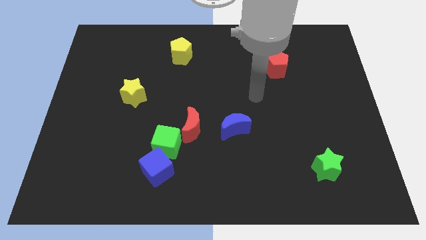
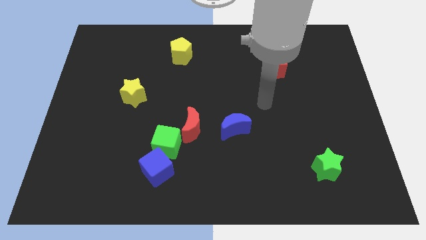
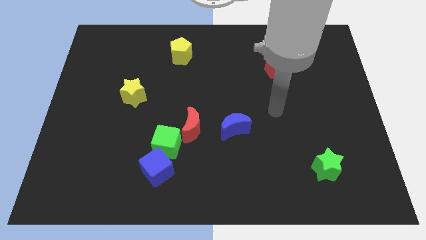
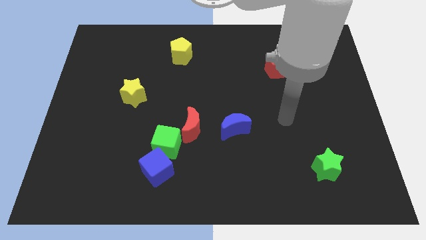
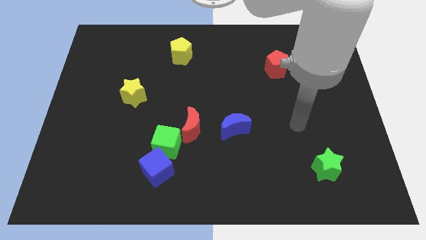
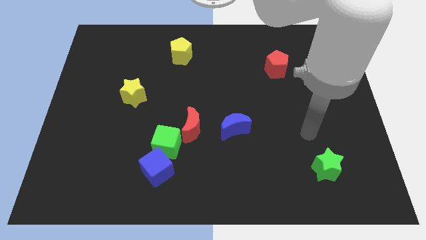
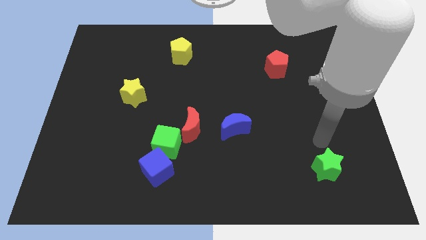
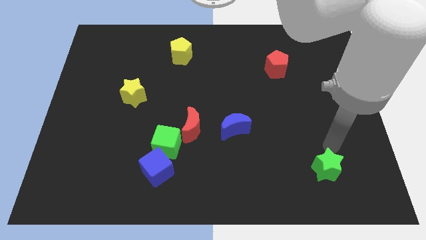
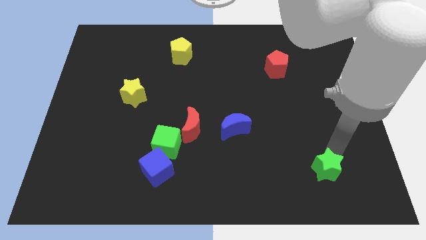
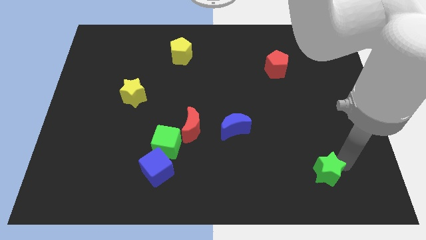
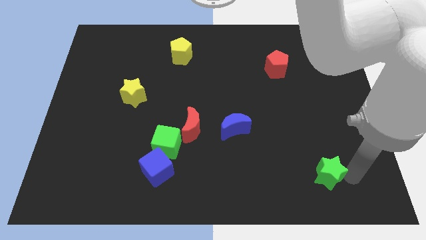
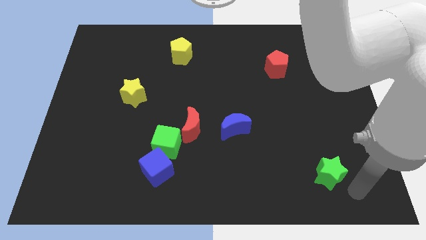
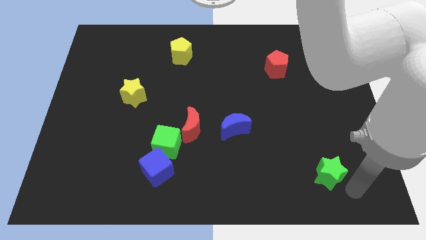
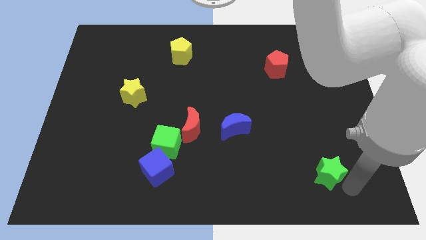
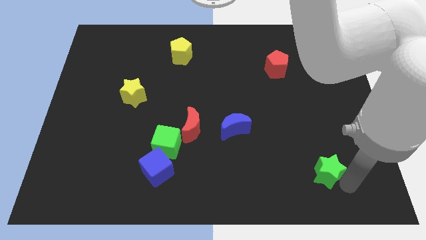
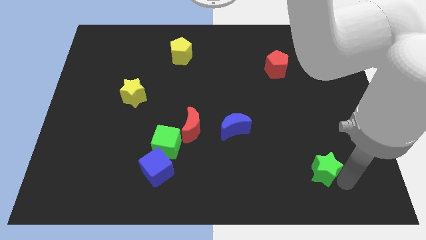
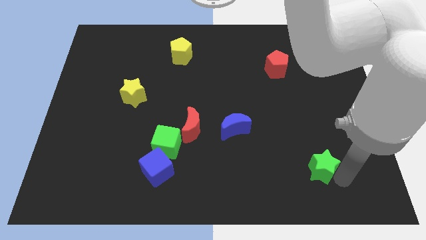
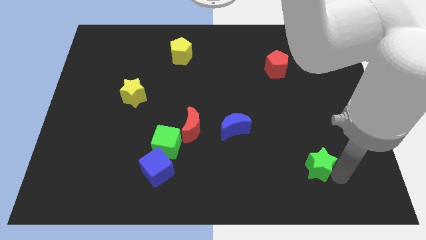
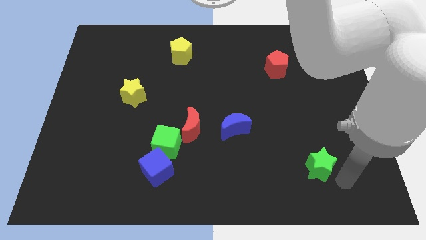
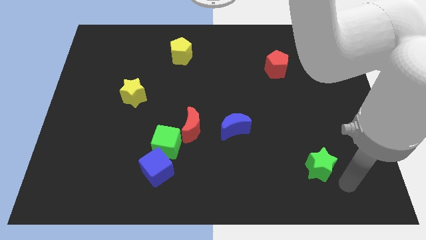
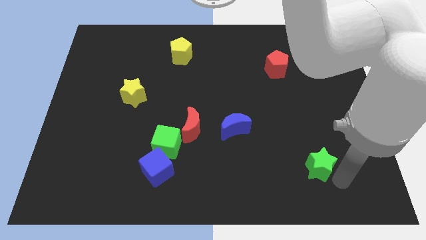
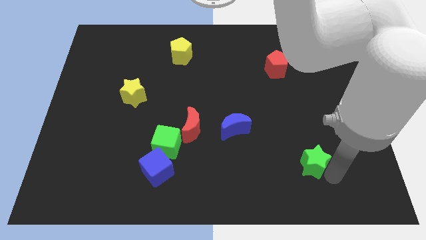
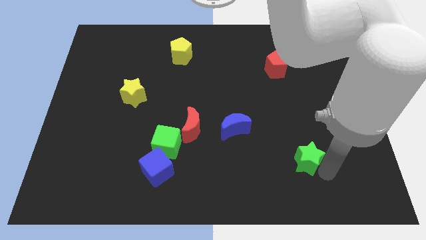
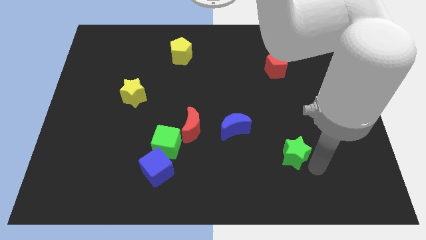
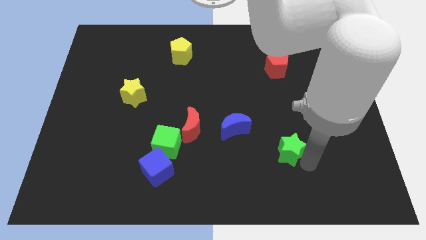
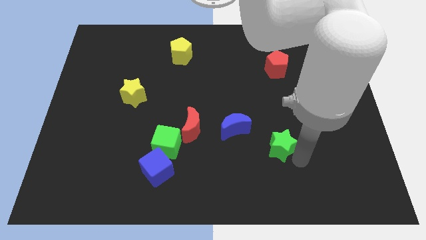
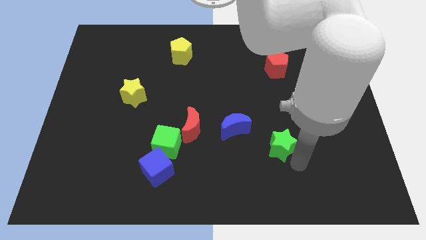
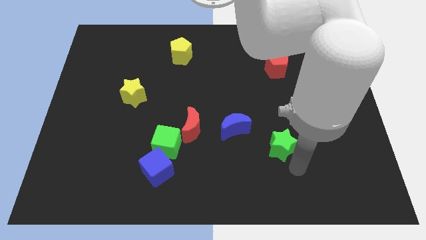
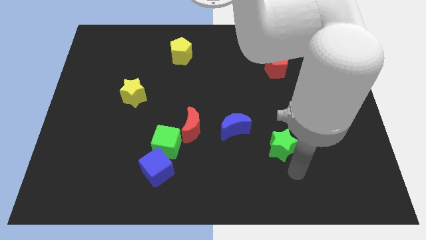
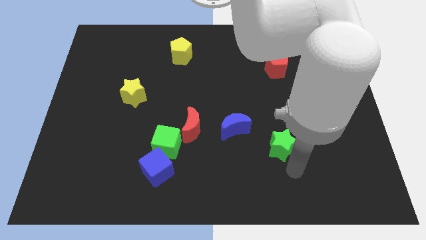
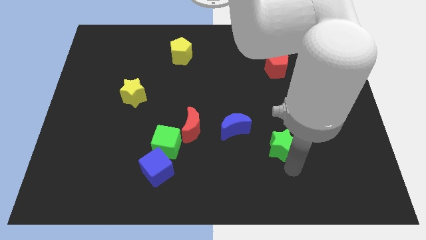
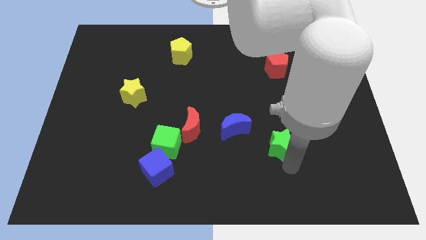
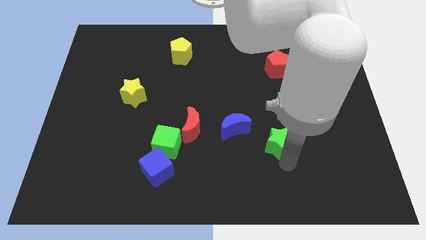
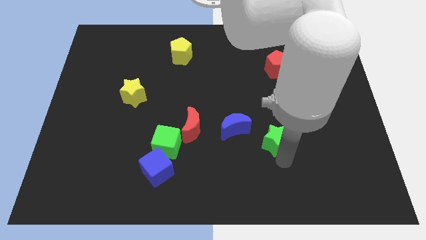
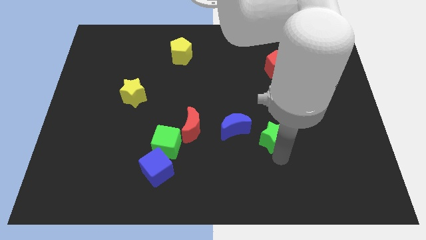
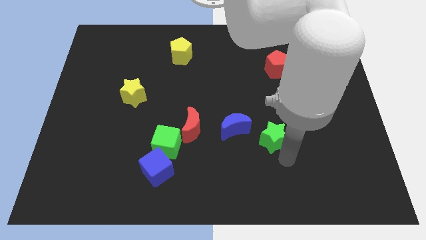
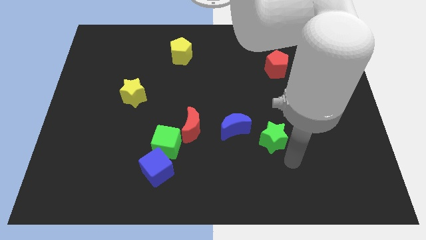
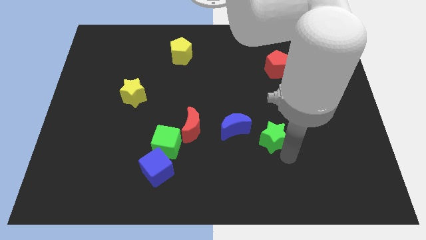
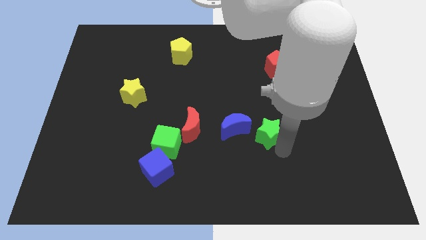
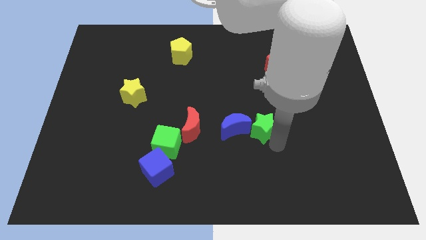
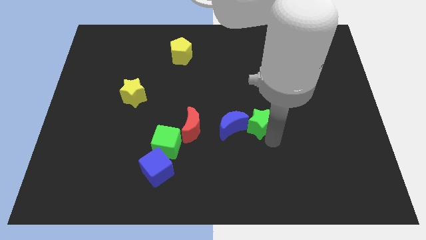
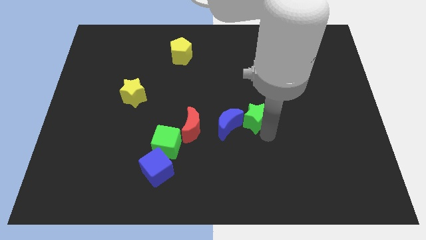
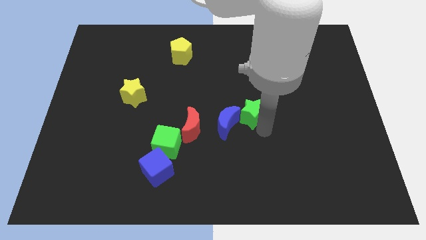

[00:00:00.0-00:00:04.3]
move the green star diagonally up and left

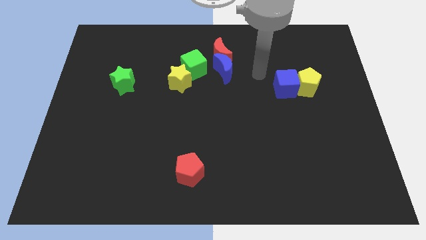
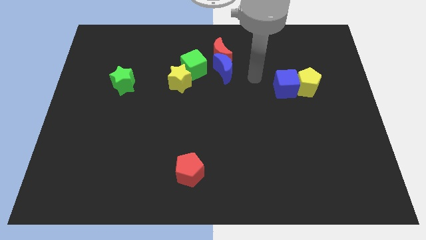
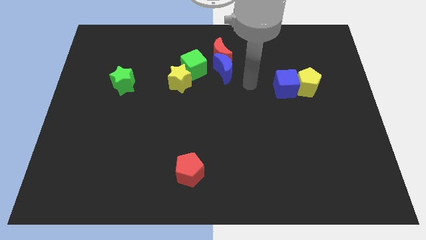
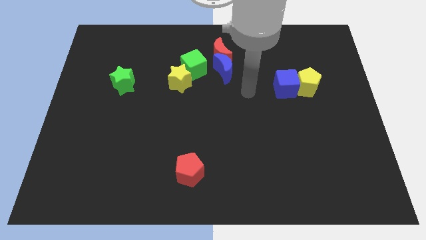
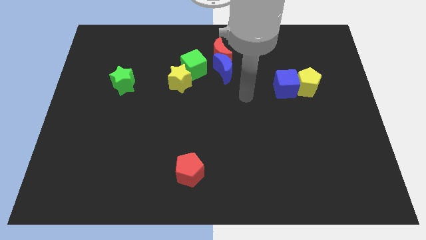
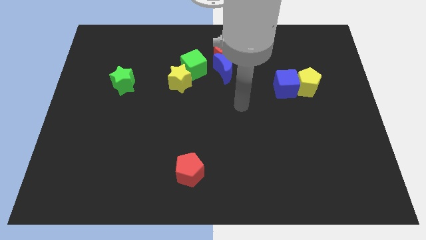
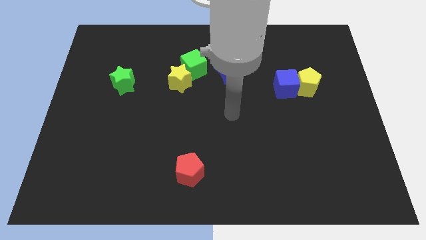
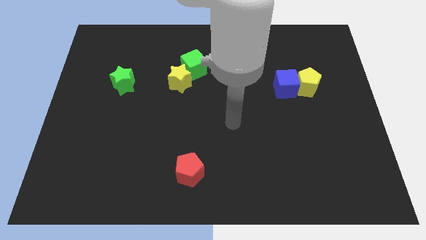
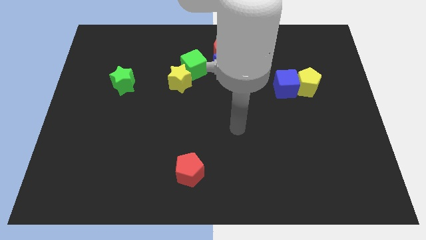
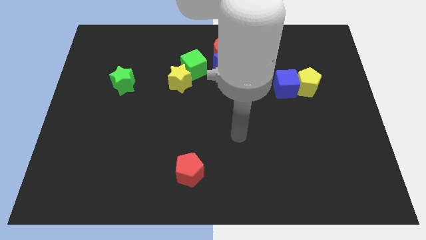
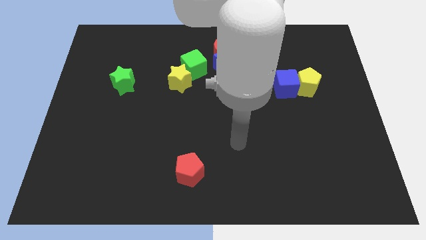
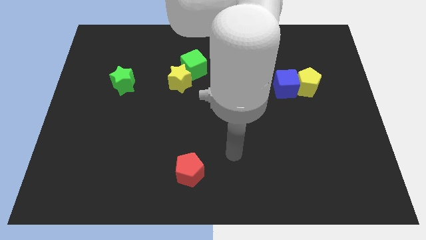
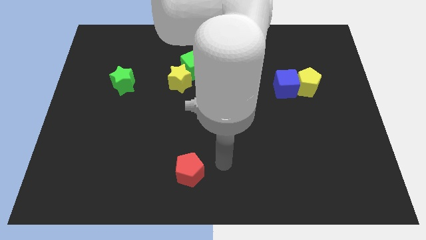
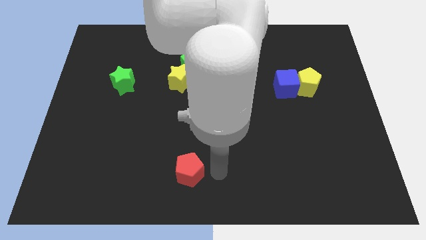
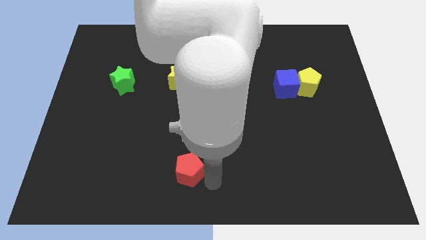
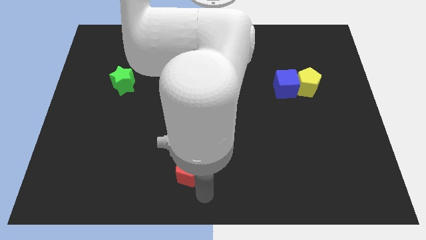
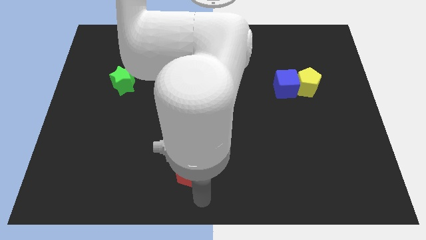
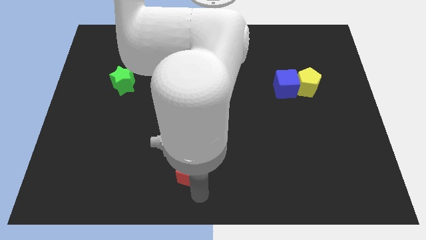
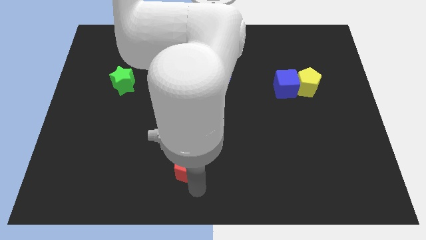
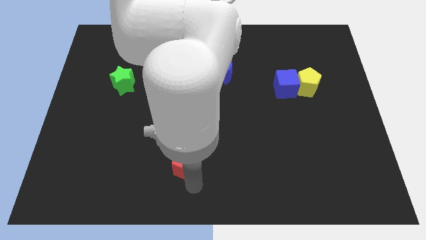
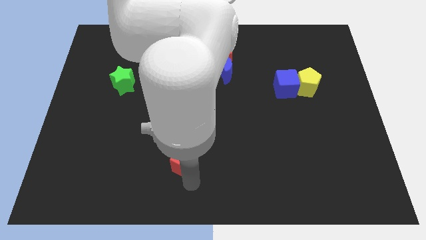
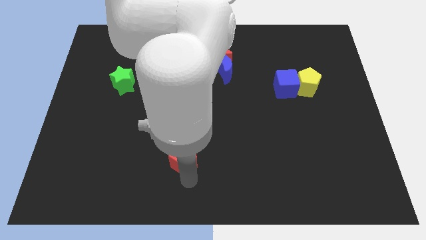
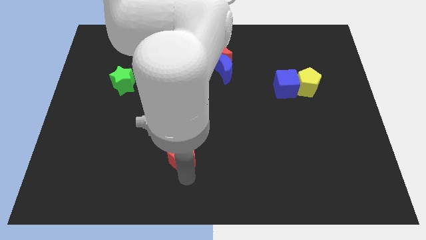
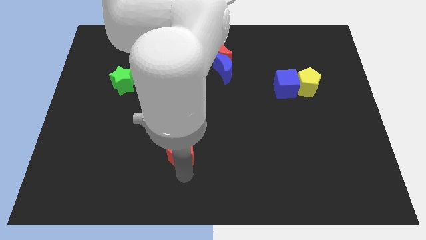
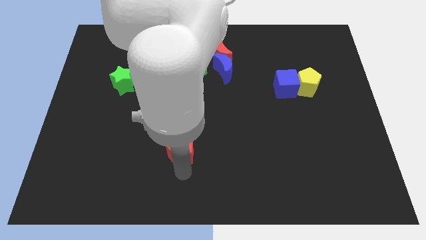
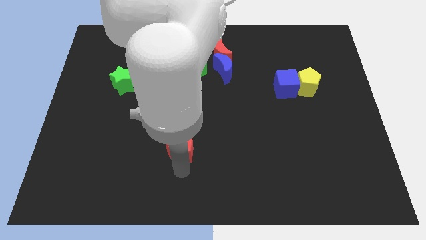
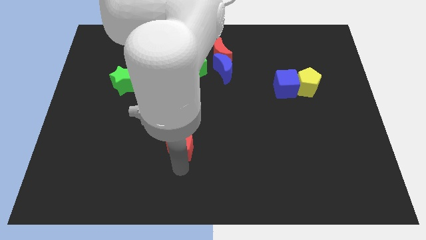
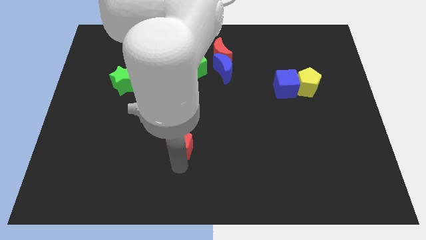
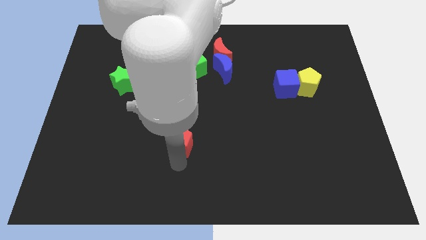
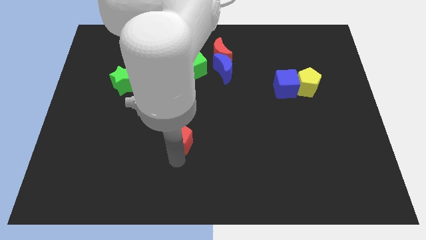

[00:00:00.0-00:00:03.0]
move the red pentagon upwards slightly

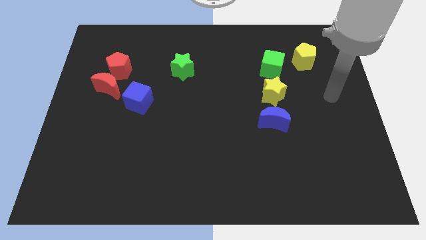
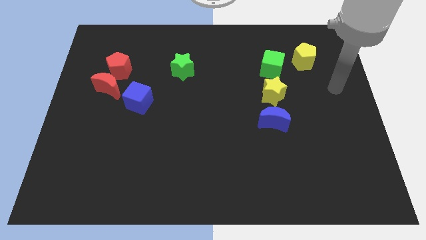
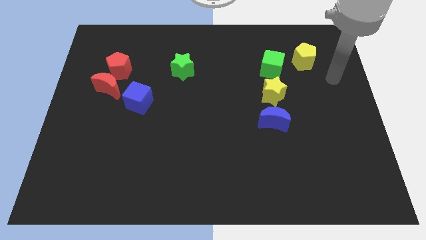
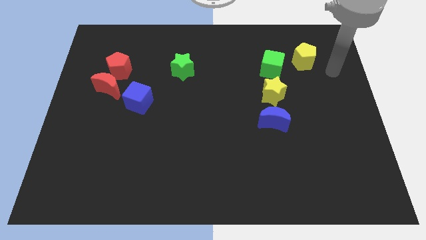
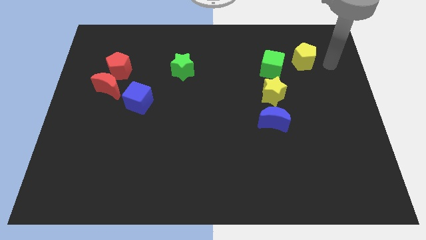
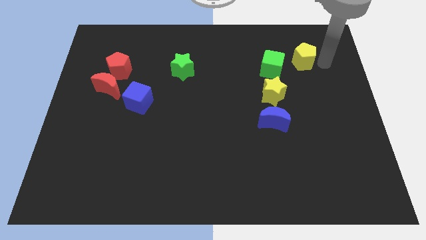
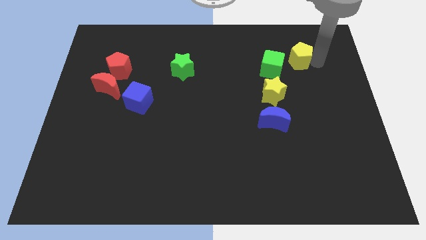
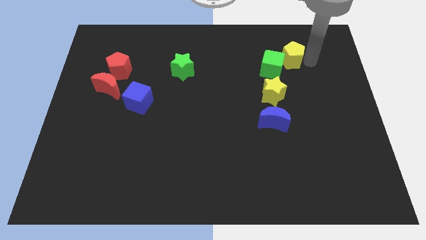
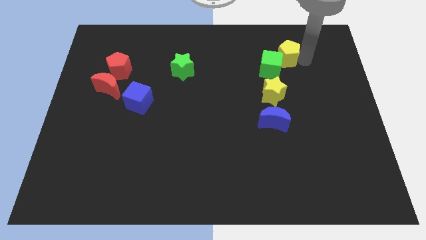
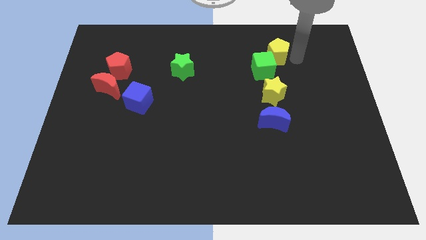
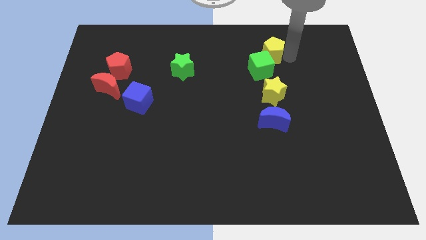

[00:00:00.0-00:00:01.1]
slightly slide the yellow pentagon to the left

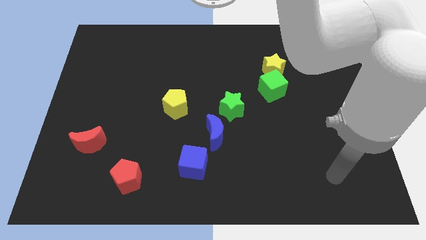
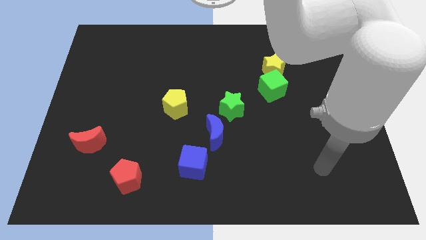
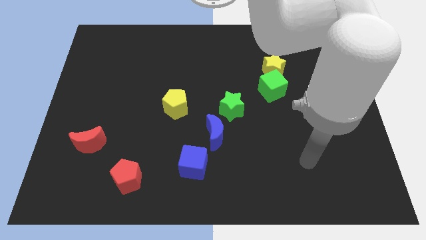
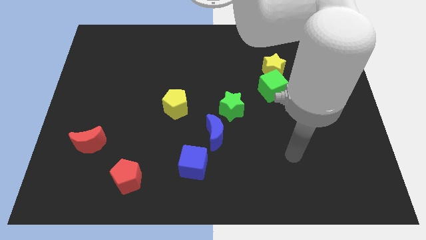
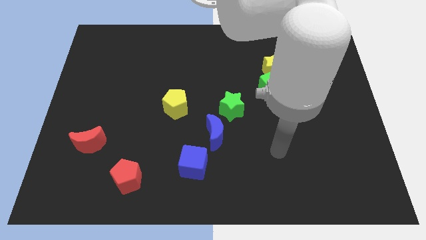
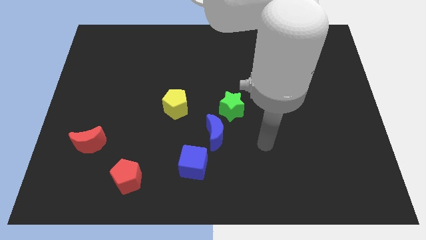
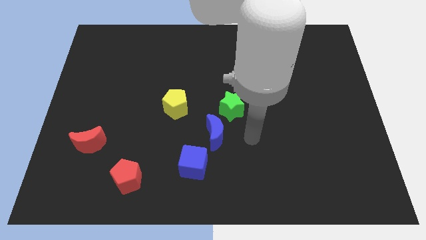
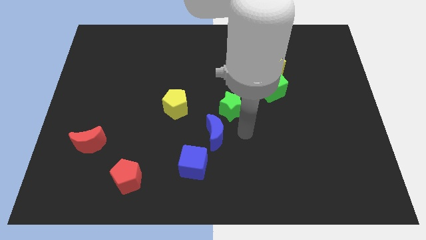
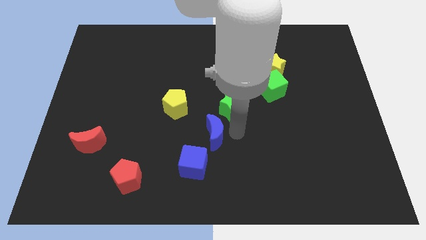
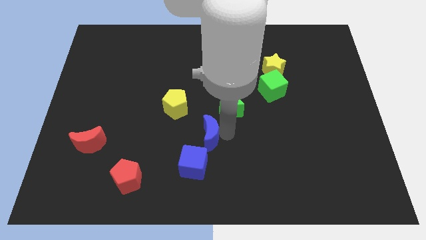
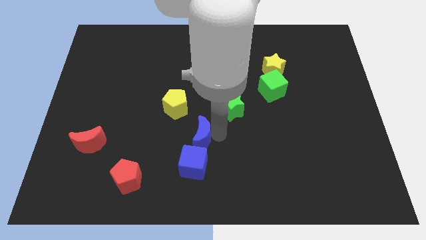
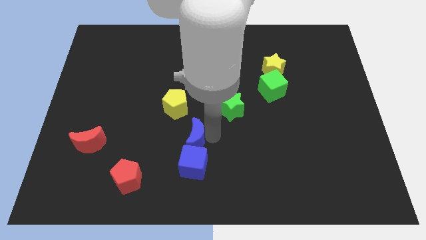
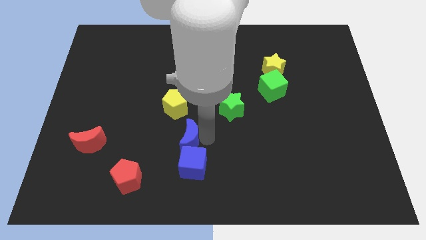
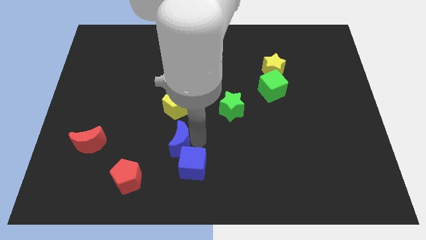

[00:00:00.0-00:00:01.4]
push the blue moon somewhat left
